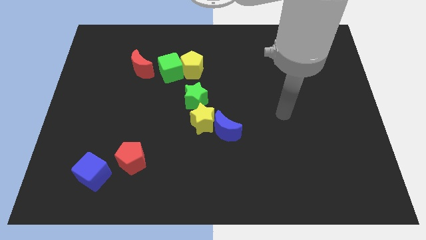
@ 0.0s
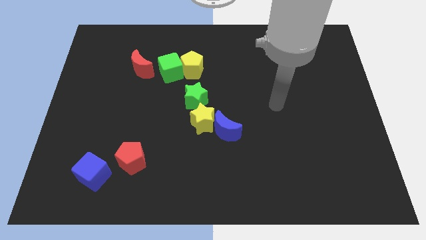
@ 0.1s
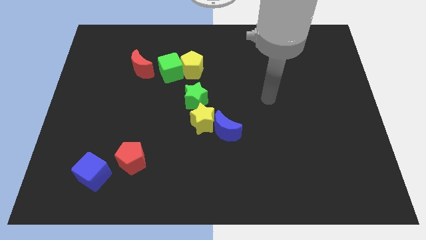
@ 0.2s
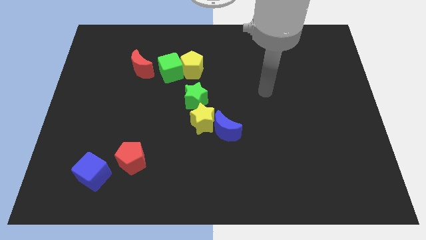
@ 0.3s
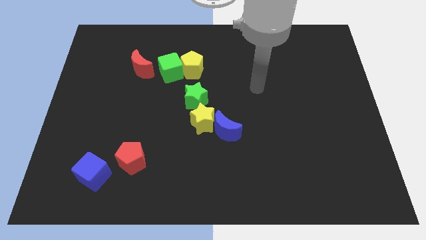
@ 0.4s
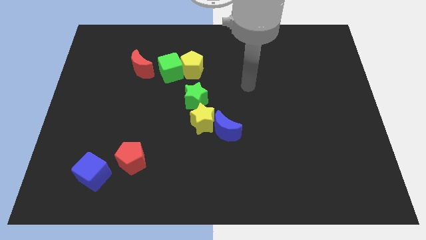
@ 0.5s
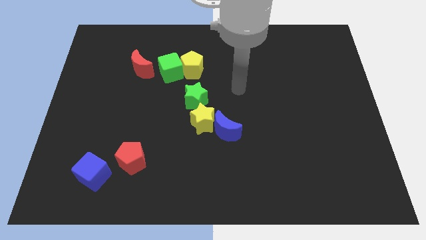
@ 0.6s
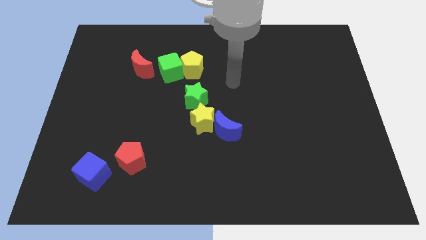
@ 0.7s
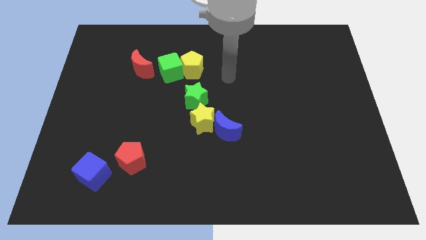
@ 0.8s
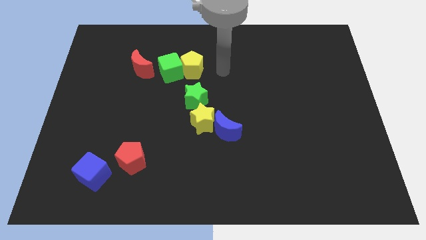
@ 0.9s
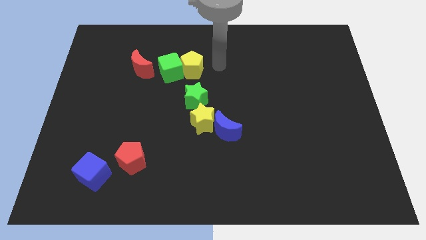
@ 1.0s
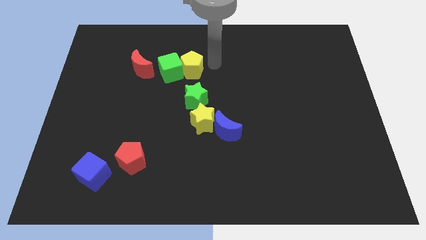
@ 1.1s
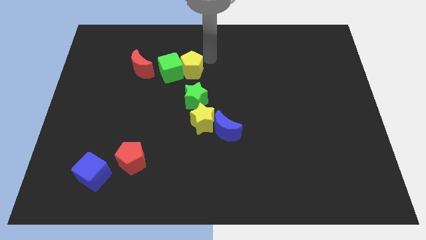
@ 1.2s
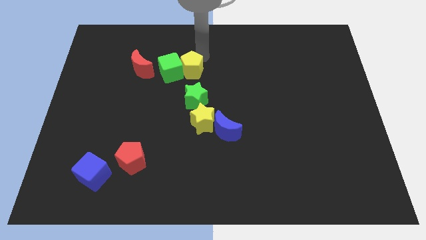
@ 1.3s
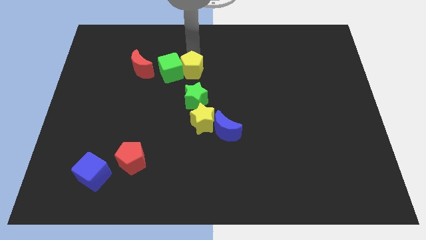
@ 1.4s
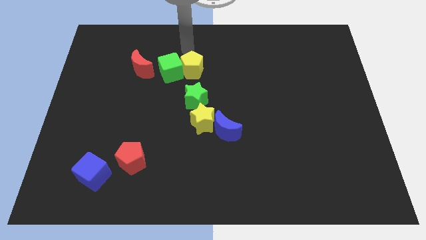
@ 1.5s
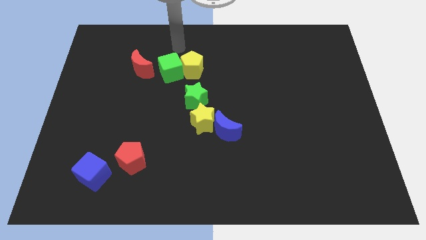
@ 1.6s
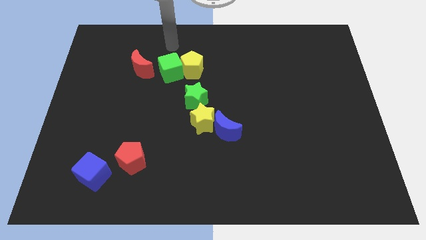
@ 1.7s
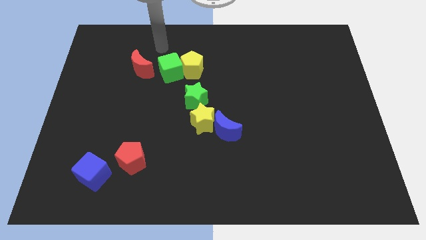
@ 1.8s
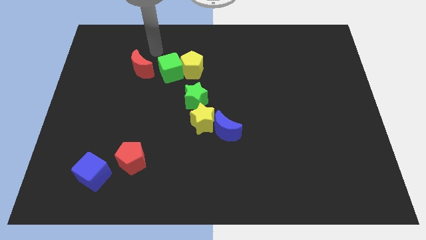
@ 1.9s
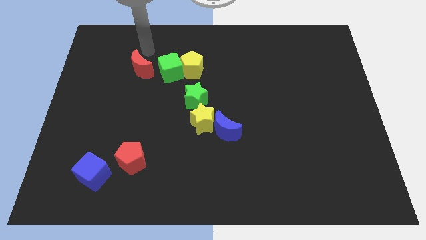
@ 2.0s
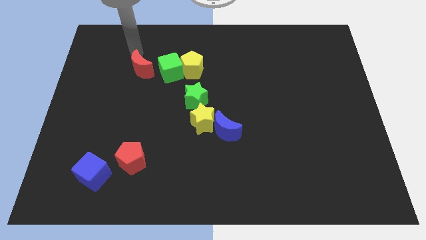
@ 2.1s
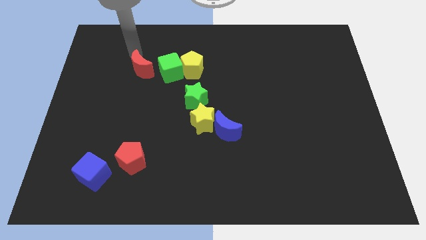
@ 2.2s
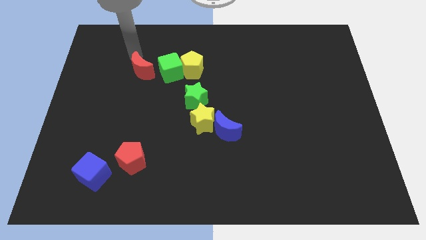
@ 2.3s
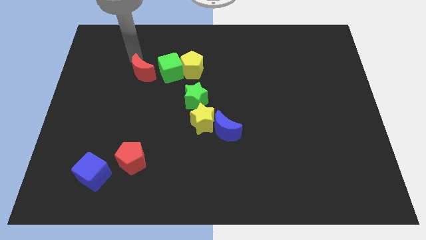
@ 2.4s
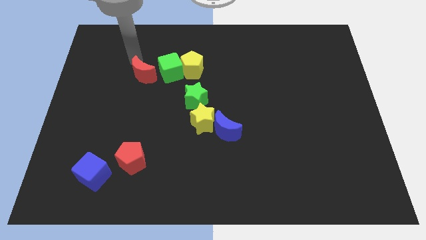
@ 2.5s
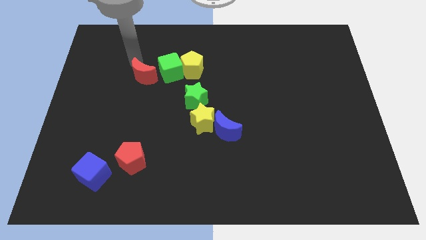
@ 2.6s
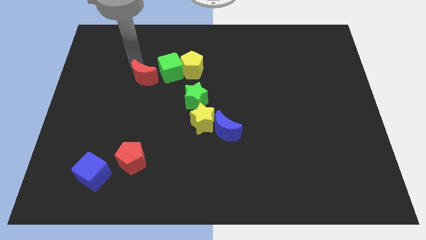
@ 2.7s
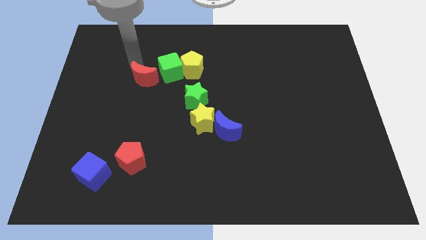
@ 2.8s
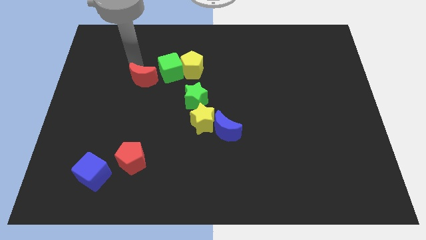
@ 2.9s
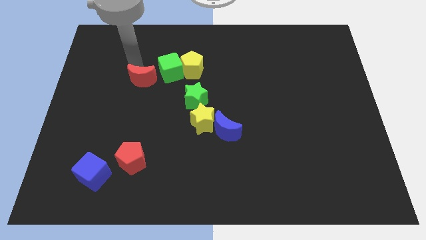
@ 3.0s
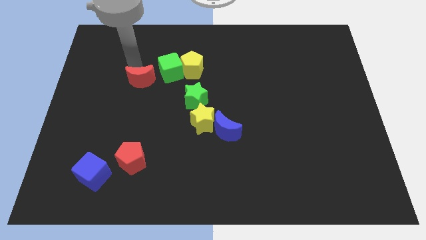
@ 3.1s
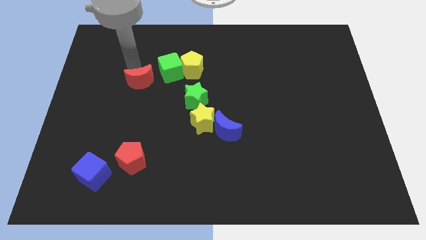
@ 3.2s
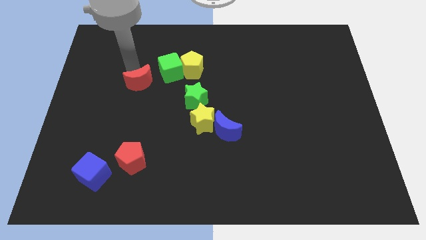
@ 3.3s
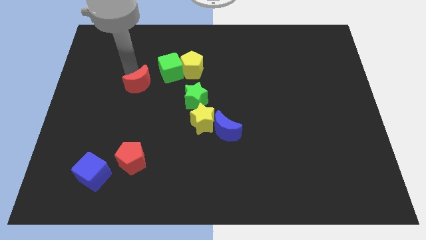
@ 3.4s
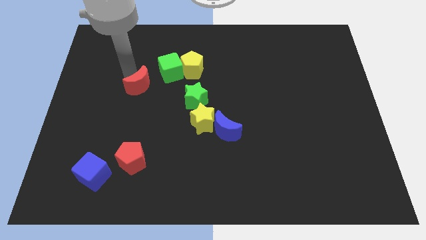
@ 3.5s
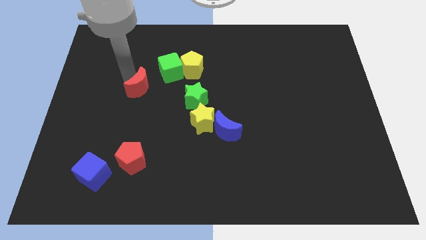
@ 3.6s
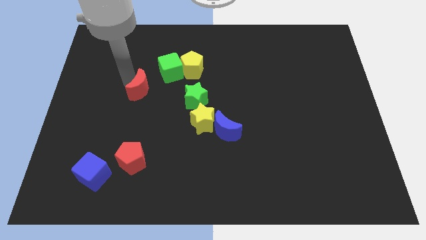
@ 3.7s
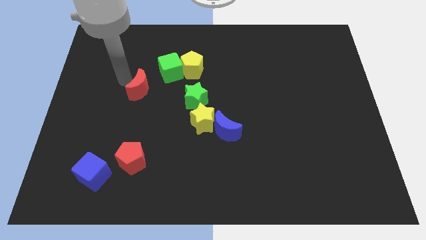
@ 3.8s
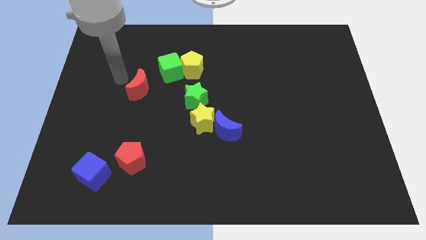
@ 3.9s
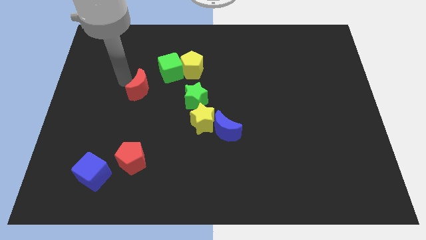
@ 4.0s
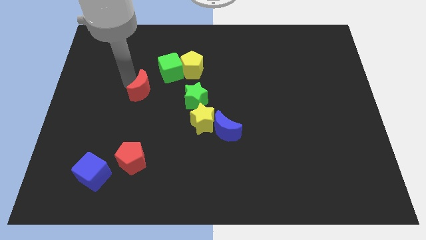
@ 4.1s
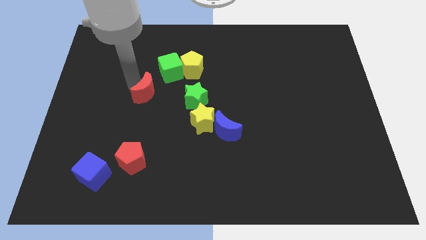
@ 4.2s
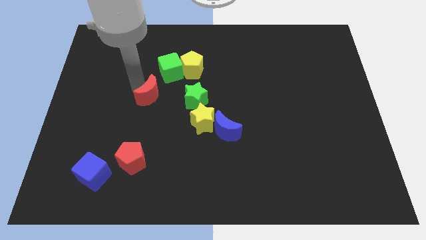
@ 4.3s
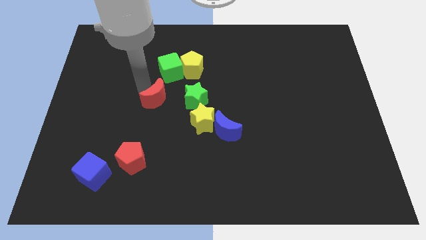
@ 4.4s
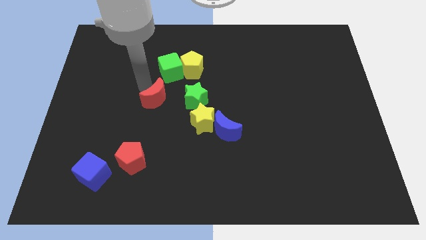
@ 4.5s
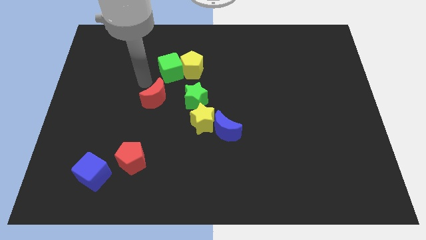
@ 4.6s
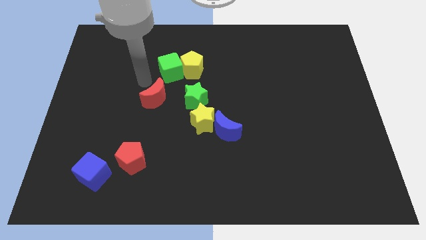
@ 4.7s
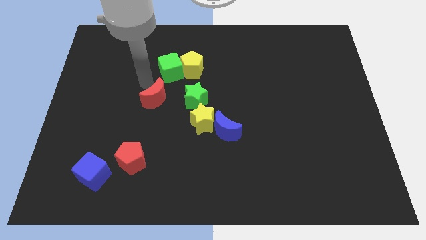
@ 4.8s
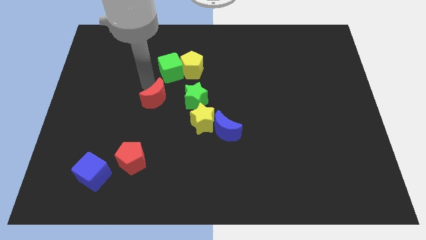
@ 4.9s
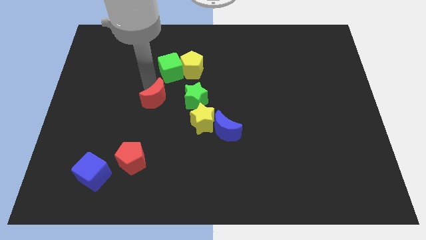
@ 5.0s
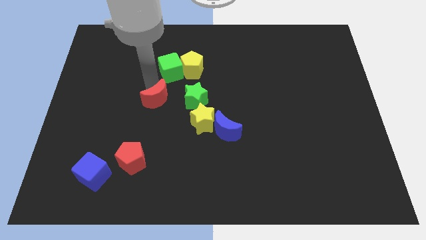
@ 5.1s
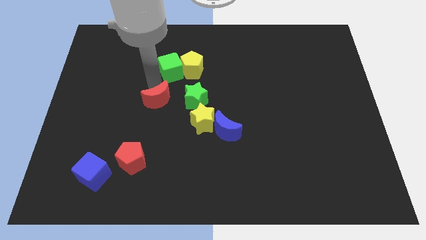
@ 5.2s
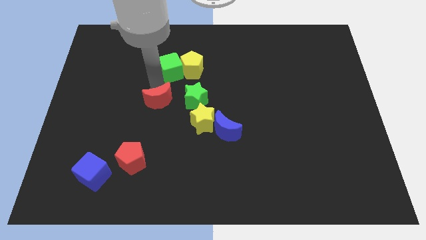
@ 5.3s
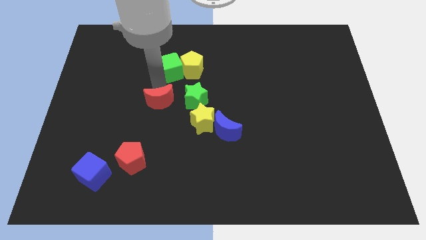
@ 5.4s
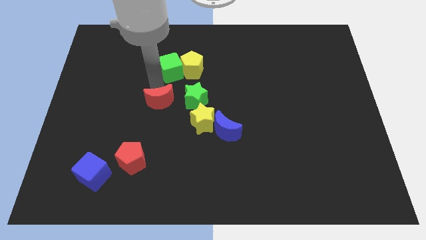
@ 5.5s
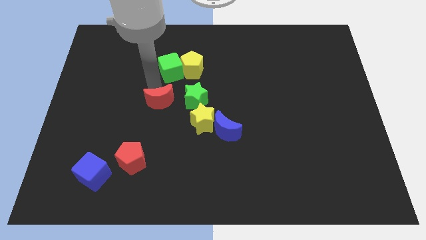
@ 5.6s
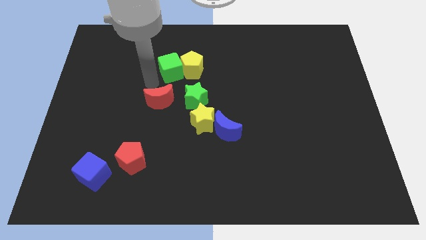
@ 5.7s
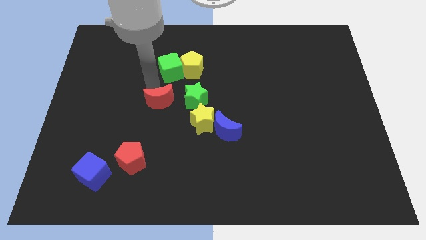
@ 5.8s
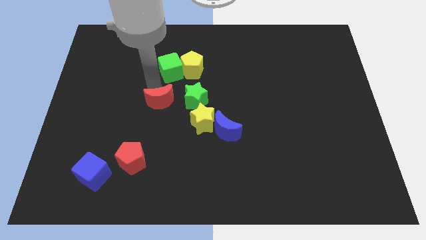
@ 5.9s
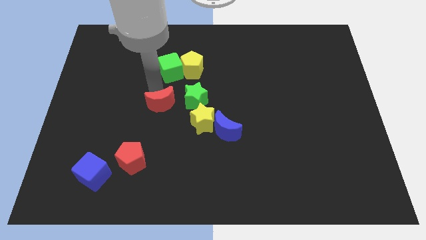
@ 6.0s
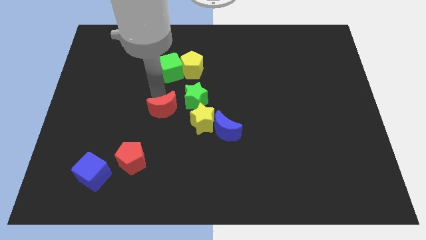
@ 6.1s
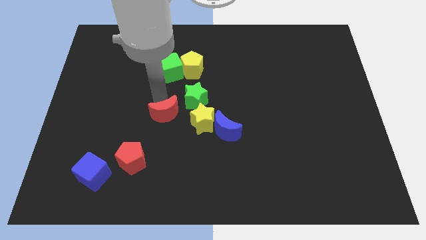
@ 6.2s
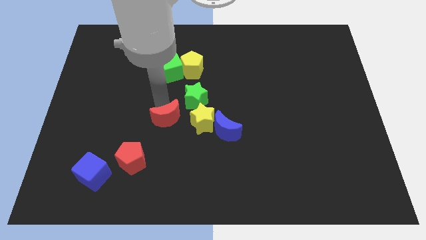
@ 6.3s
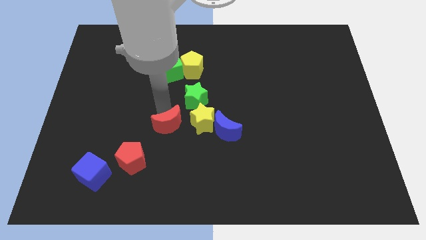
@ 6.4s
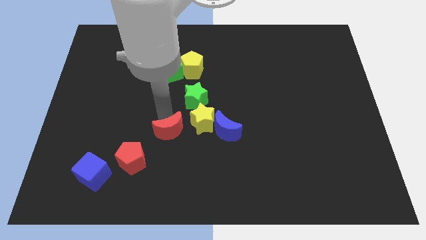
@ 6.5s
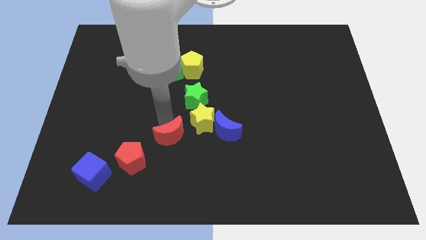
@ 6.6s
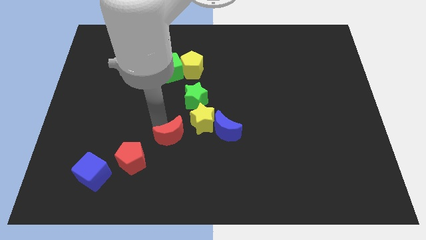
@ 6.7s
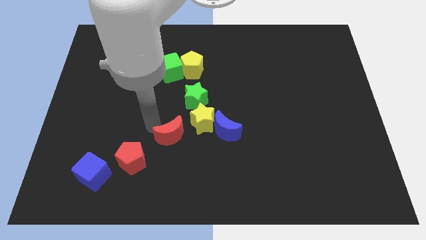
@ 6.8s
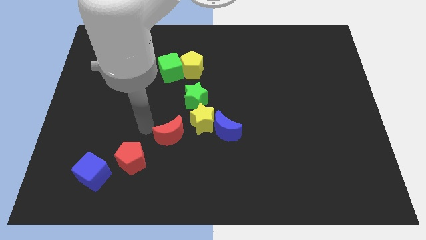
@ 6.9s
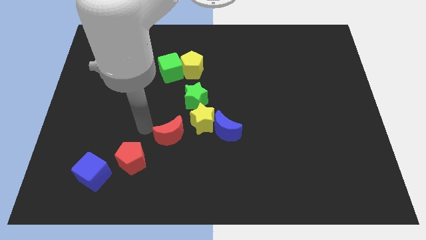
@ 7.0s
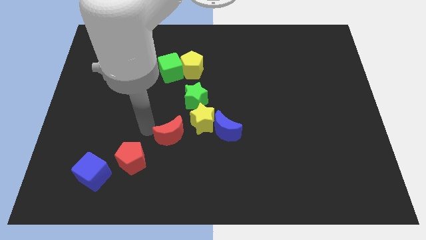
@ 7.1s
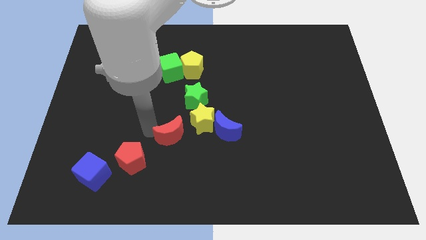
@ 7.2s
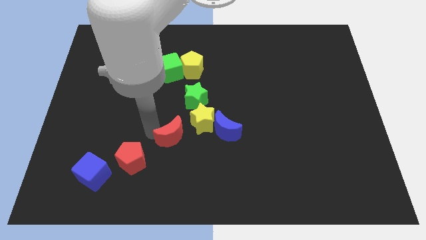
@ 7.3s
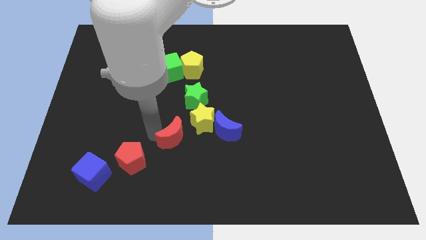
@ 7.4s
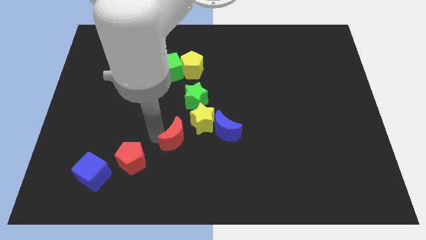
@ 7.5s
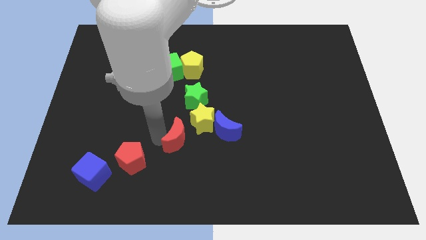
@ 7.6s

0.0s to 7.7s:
move the red moon diagonally down and to the right

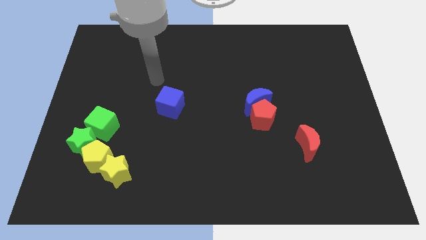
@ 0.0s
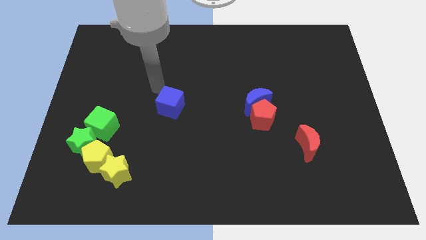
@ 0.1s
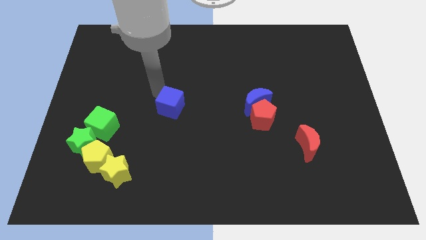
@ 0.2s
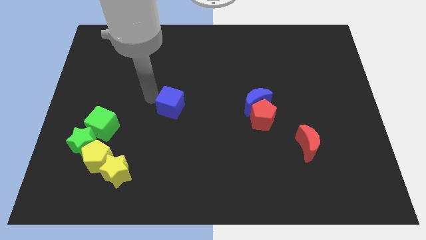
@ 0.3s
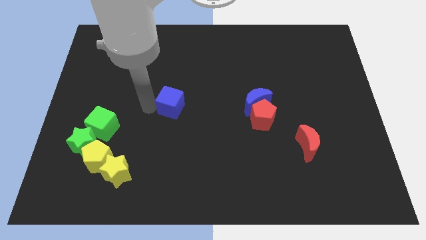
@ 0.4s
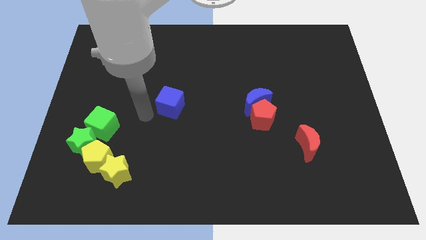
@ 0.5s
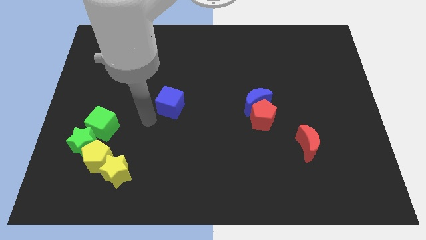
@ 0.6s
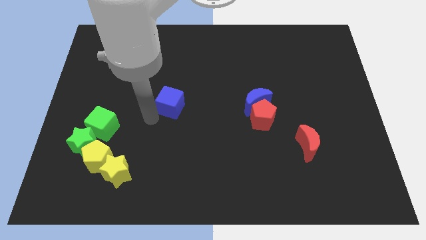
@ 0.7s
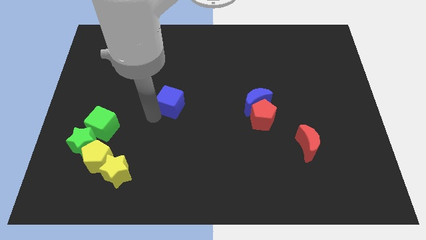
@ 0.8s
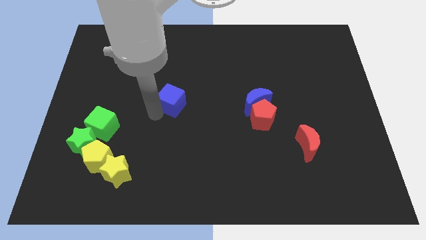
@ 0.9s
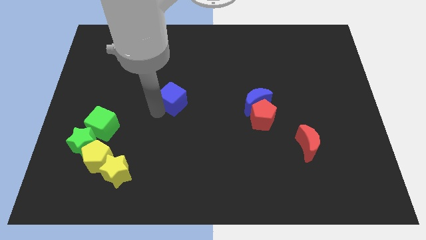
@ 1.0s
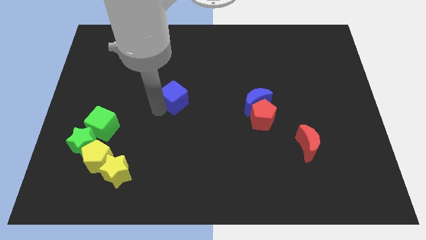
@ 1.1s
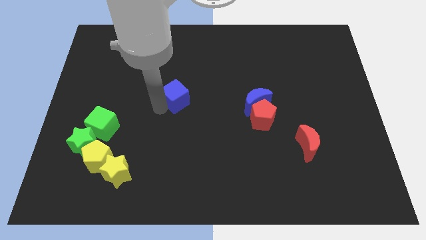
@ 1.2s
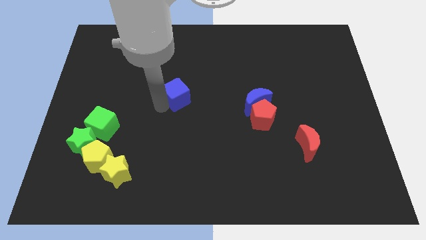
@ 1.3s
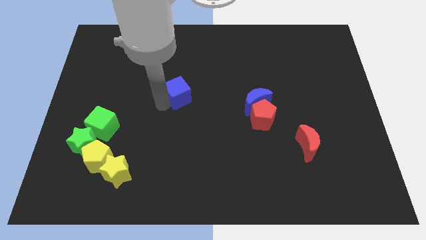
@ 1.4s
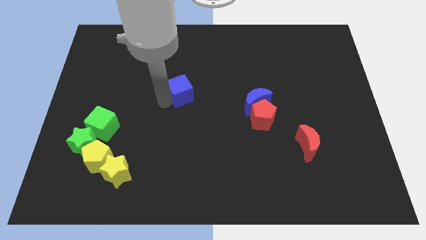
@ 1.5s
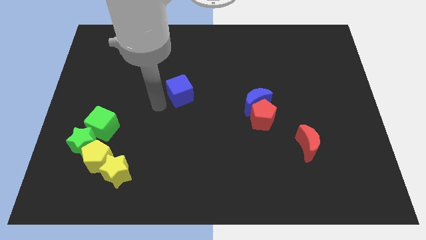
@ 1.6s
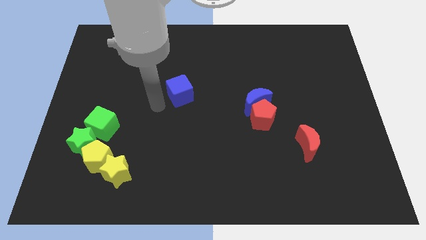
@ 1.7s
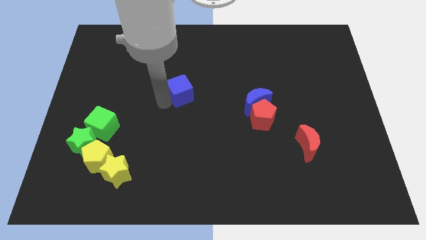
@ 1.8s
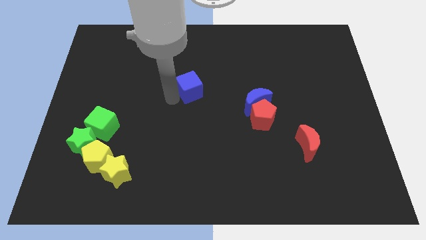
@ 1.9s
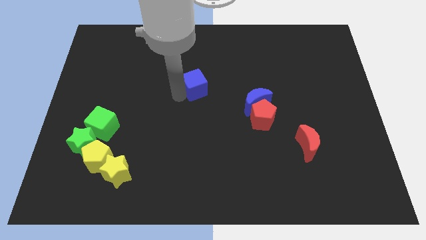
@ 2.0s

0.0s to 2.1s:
slightly push the blue cube upwards and to the right
